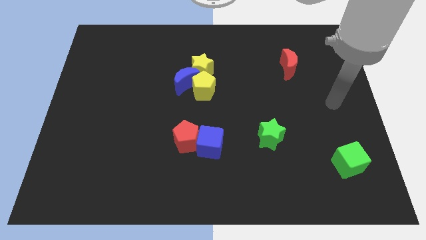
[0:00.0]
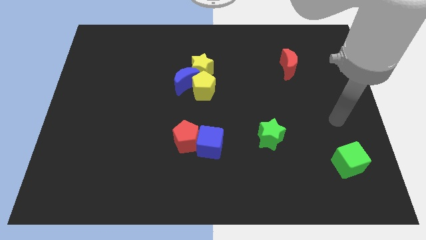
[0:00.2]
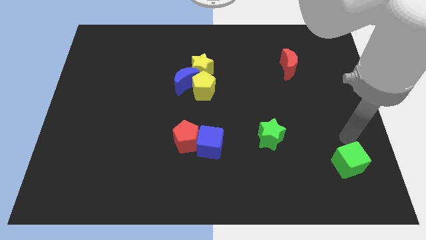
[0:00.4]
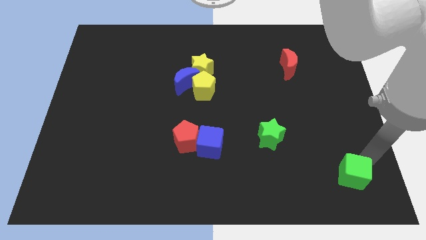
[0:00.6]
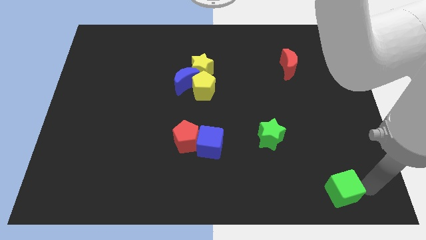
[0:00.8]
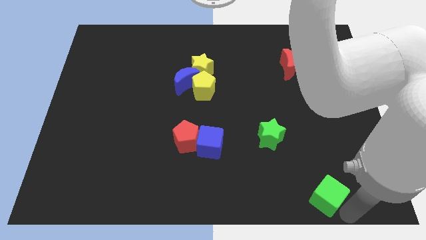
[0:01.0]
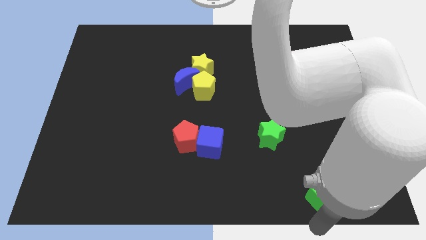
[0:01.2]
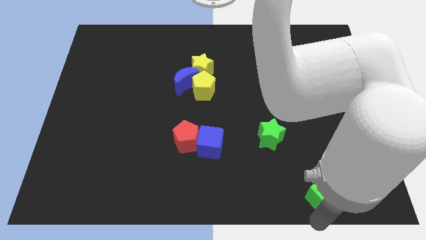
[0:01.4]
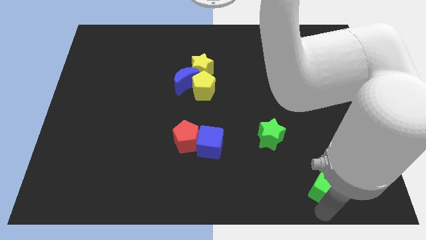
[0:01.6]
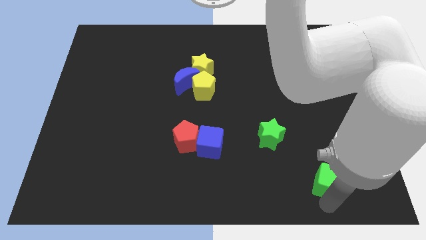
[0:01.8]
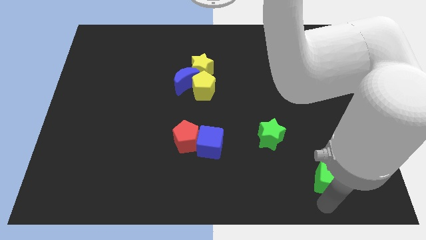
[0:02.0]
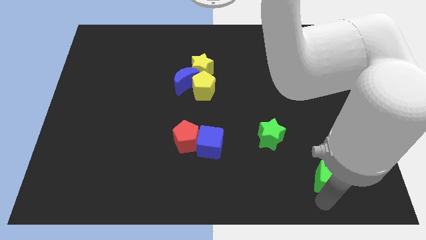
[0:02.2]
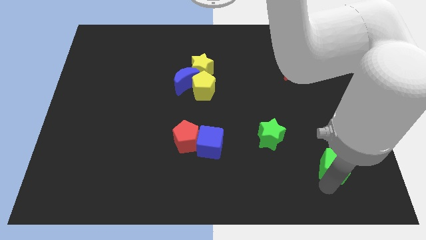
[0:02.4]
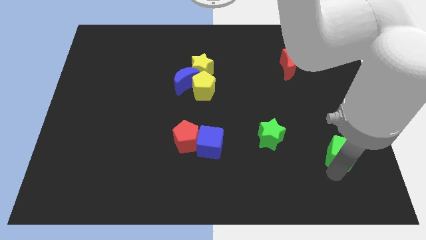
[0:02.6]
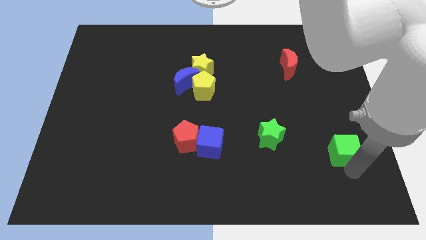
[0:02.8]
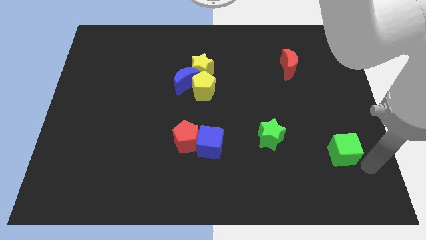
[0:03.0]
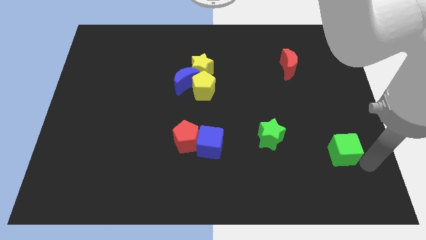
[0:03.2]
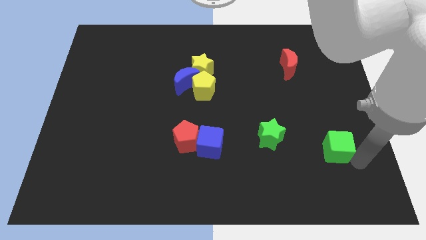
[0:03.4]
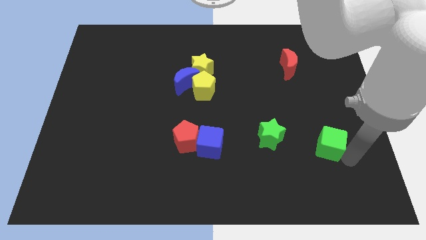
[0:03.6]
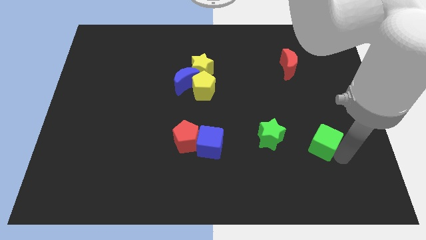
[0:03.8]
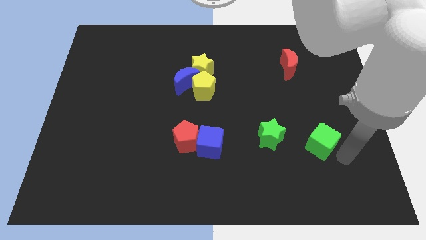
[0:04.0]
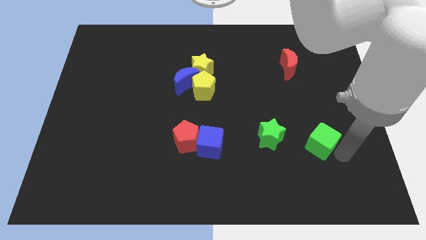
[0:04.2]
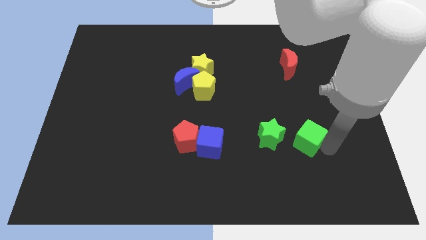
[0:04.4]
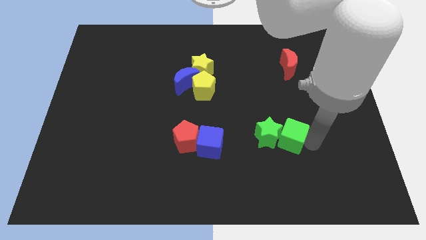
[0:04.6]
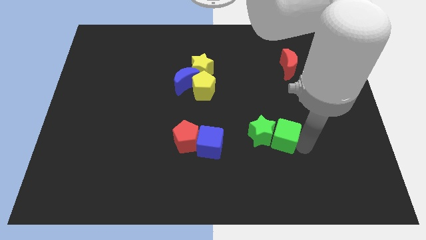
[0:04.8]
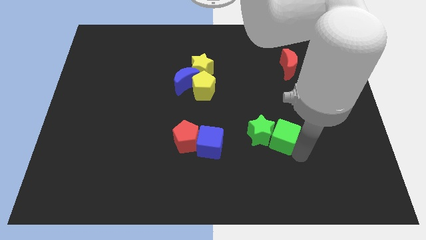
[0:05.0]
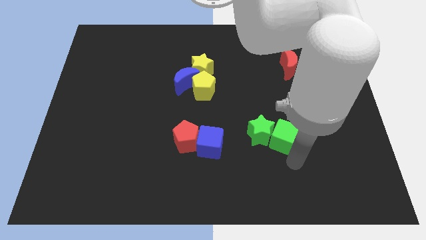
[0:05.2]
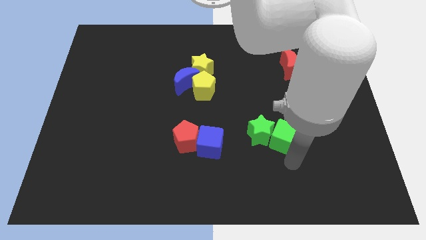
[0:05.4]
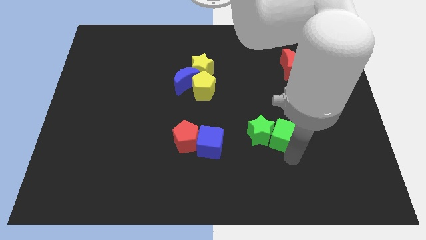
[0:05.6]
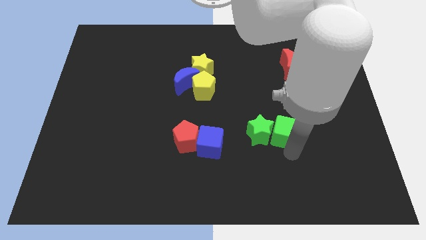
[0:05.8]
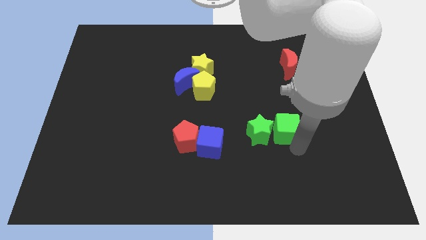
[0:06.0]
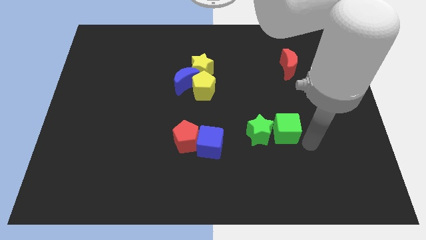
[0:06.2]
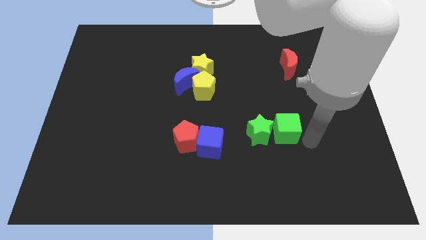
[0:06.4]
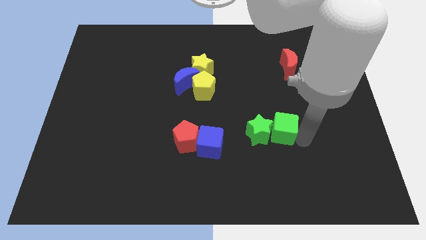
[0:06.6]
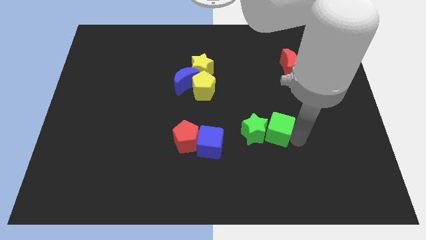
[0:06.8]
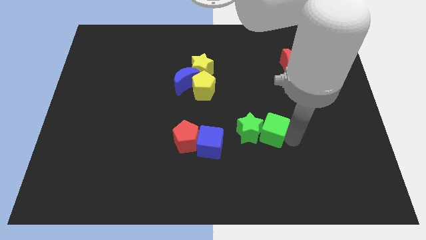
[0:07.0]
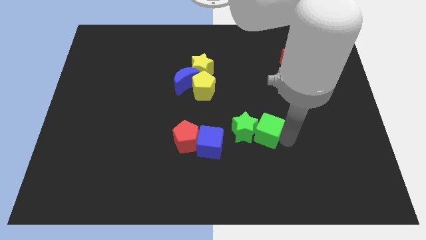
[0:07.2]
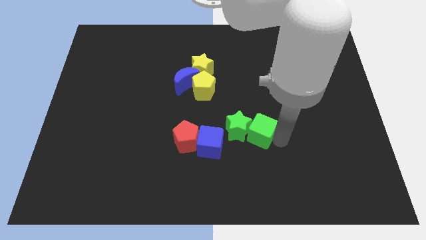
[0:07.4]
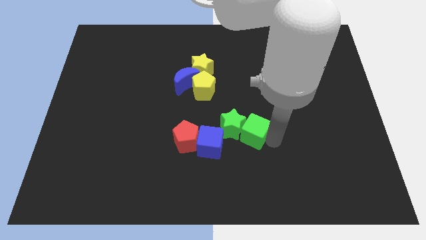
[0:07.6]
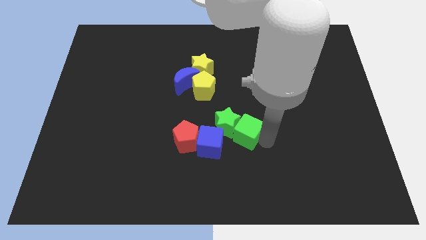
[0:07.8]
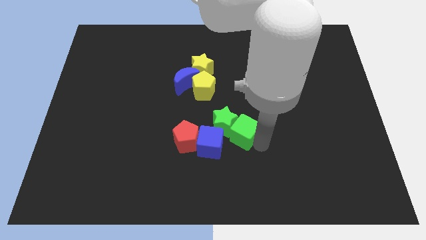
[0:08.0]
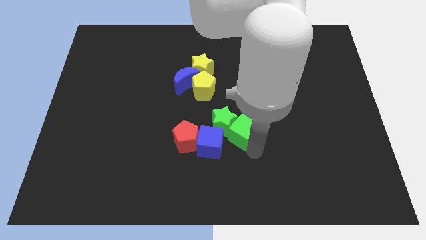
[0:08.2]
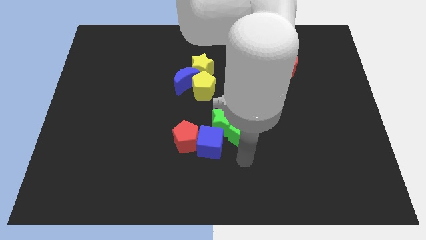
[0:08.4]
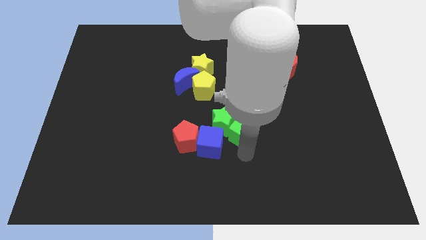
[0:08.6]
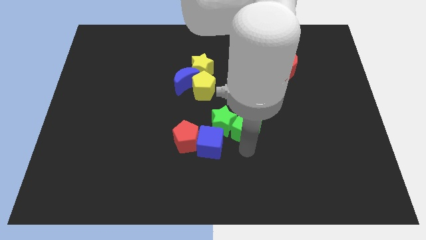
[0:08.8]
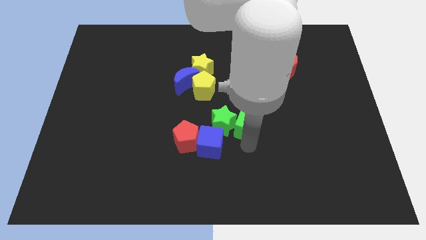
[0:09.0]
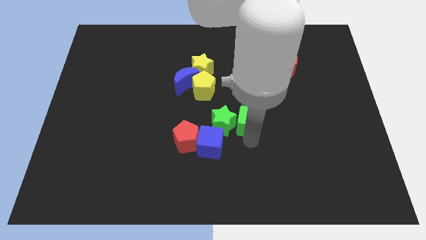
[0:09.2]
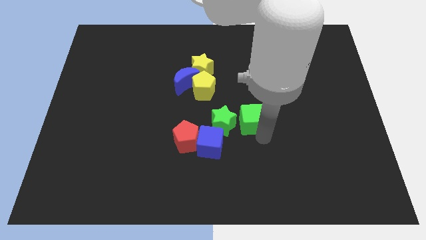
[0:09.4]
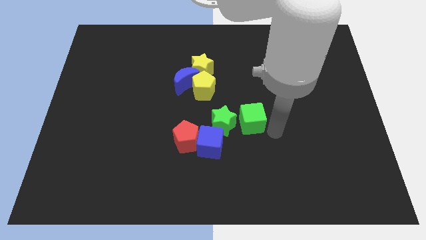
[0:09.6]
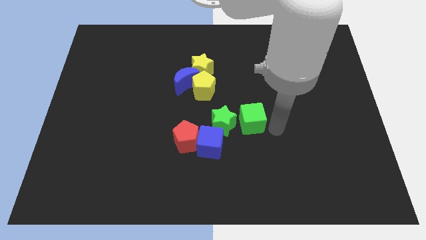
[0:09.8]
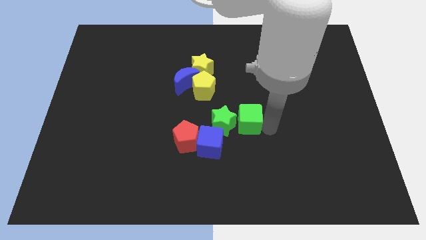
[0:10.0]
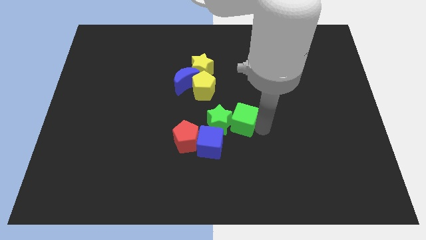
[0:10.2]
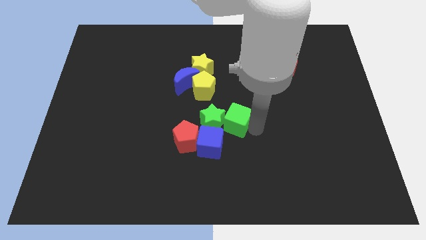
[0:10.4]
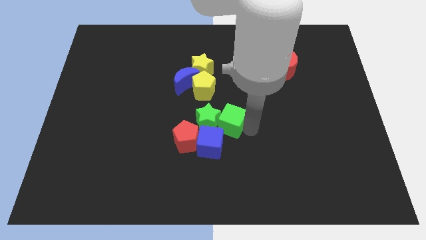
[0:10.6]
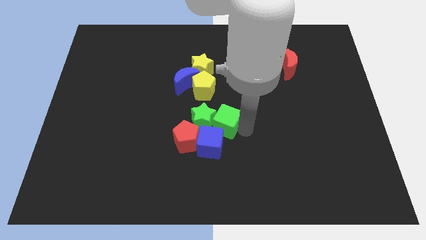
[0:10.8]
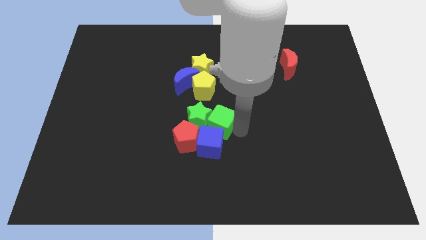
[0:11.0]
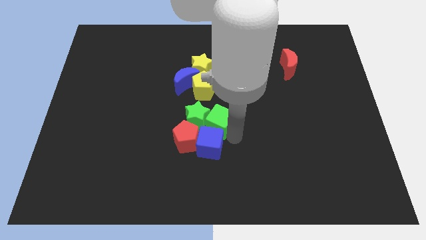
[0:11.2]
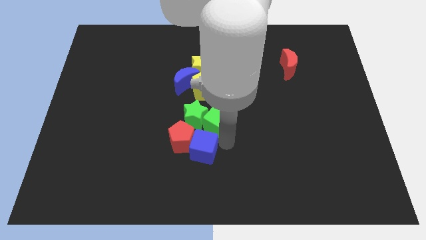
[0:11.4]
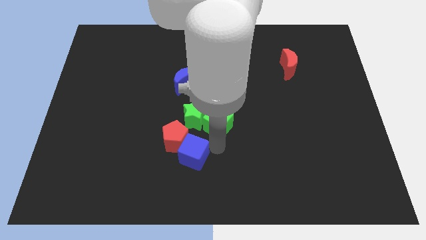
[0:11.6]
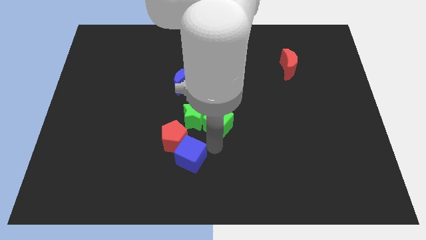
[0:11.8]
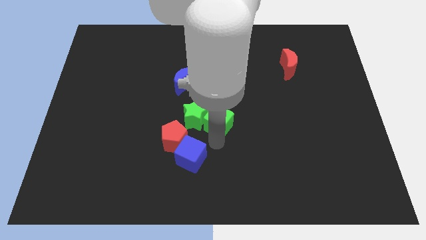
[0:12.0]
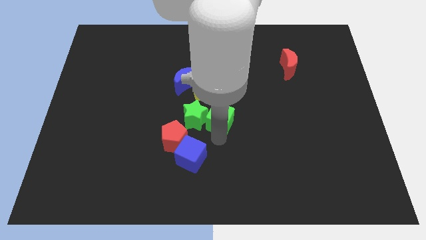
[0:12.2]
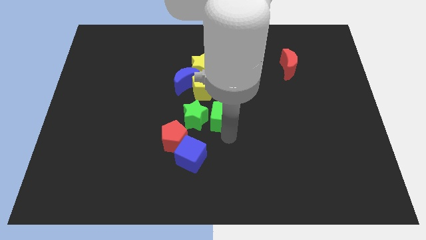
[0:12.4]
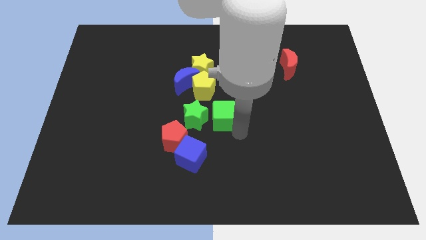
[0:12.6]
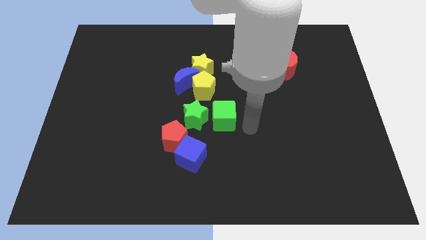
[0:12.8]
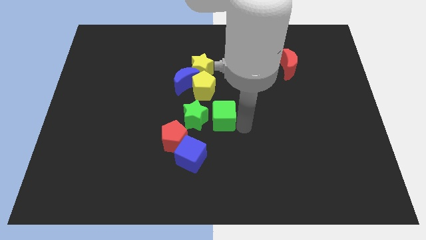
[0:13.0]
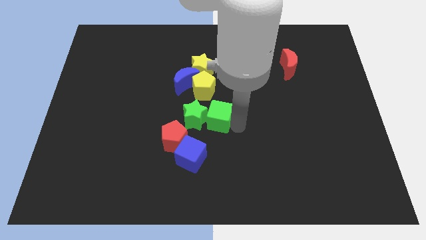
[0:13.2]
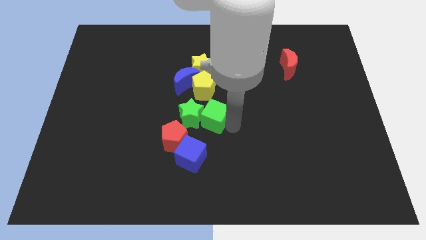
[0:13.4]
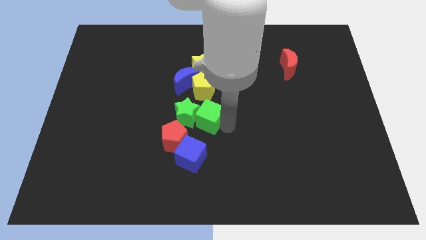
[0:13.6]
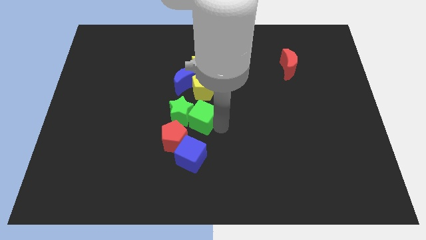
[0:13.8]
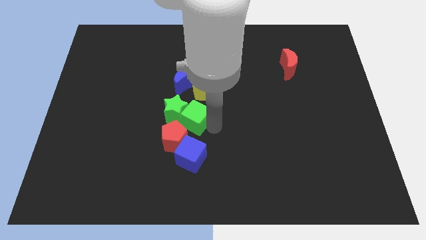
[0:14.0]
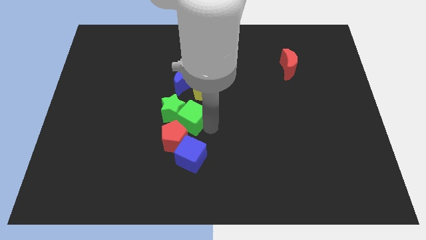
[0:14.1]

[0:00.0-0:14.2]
slide the green cube to the bottom left of the yellow pentagon

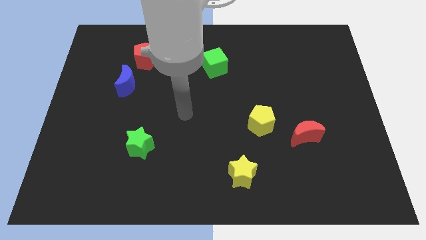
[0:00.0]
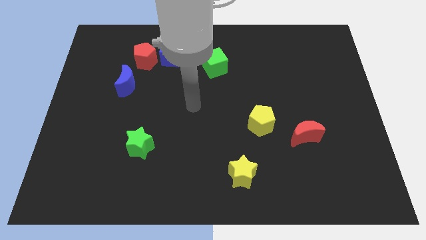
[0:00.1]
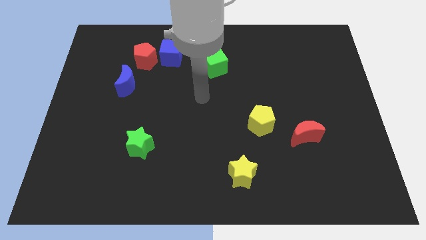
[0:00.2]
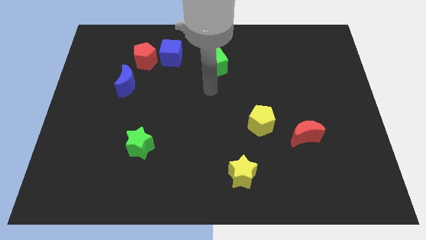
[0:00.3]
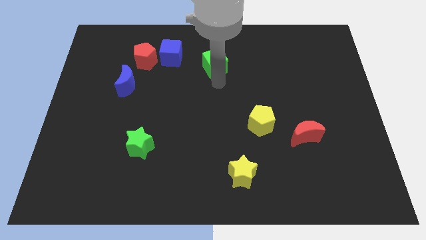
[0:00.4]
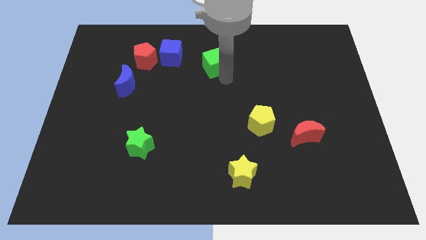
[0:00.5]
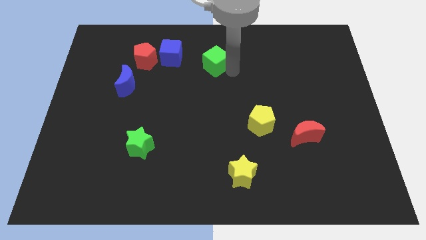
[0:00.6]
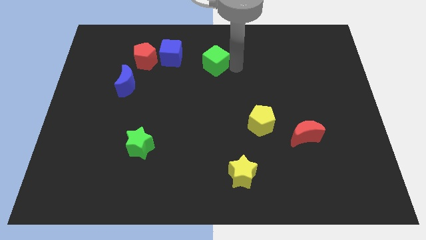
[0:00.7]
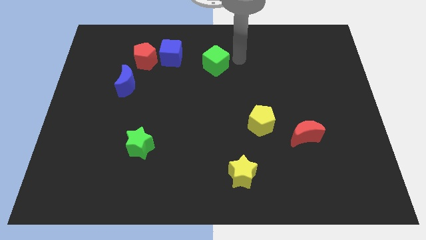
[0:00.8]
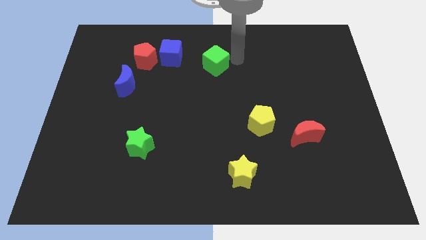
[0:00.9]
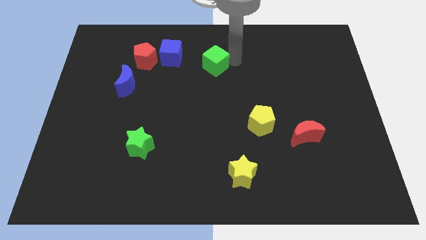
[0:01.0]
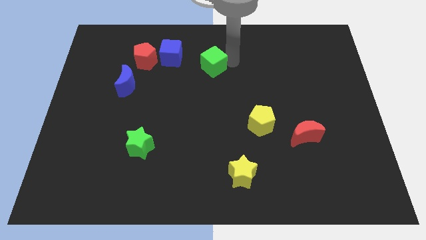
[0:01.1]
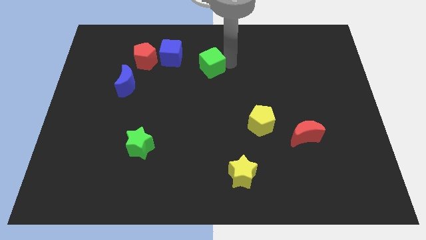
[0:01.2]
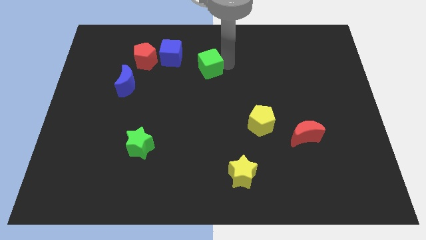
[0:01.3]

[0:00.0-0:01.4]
push the green cube diagonally down and to the right of the blue cube
